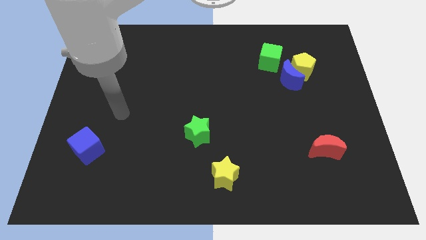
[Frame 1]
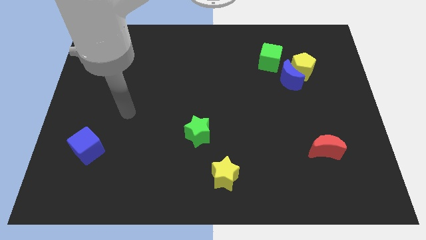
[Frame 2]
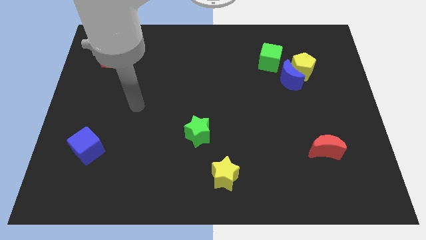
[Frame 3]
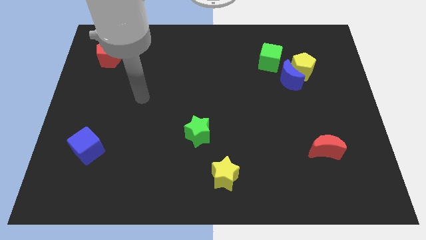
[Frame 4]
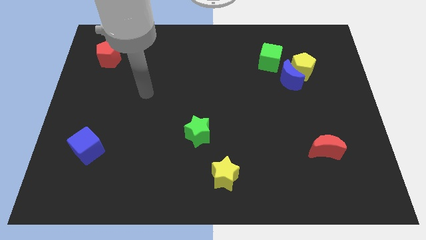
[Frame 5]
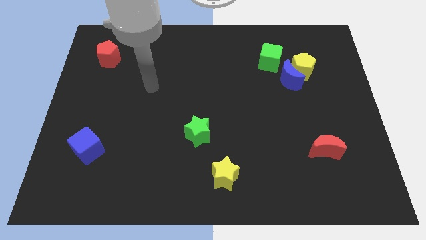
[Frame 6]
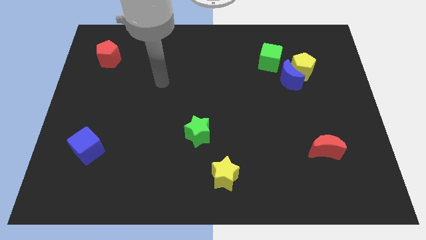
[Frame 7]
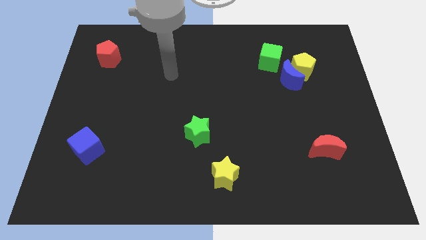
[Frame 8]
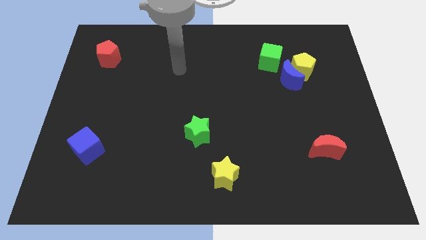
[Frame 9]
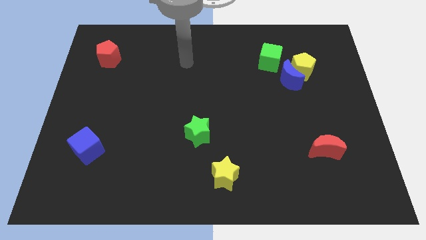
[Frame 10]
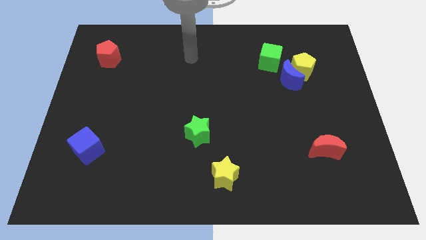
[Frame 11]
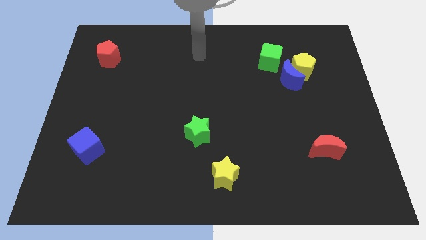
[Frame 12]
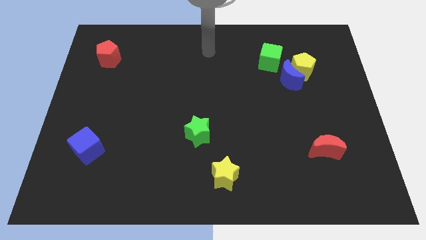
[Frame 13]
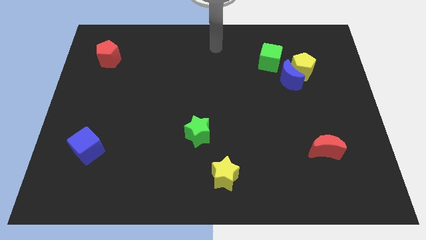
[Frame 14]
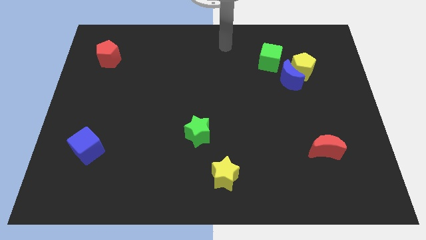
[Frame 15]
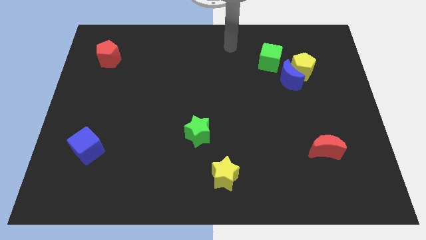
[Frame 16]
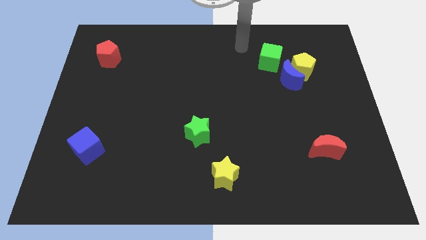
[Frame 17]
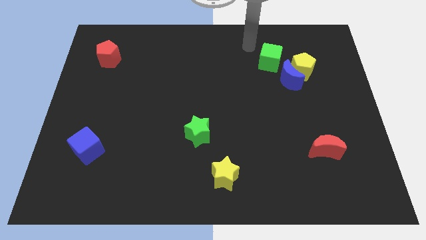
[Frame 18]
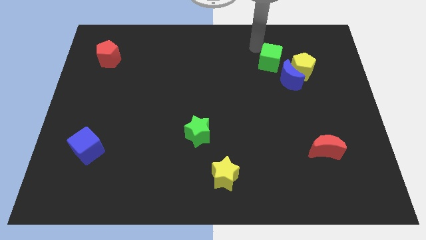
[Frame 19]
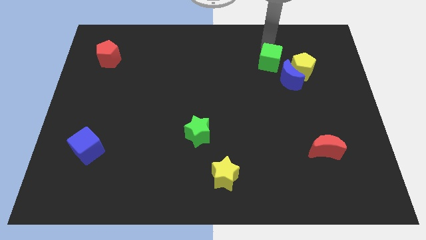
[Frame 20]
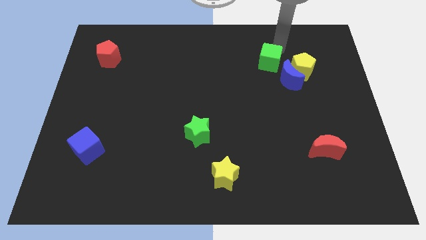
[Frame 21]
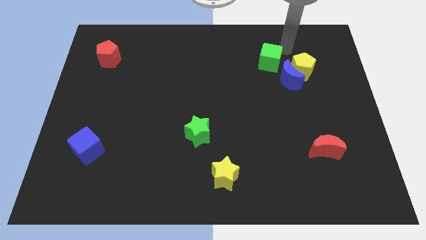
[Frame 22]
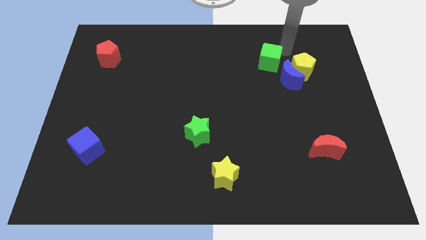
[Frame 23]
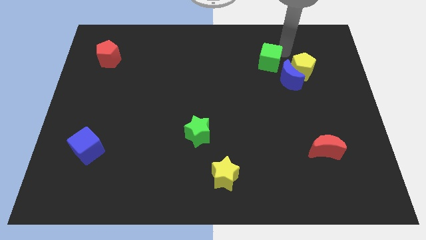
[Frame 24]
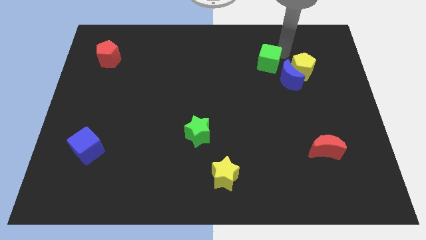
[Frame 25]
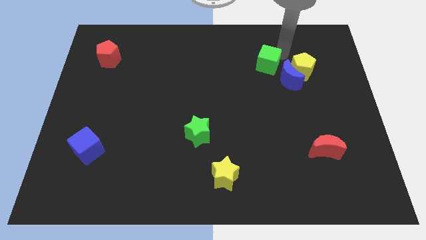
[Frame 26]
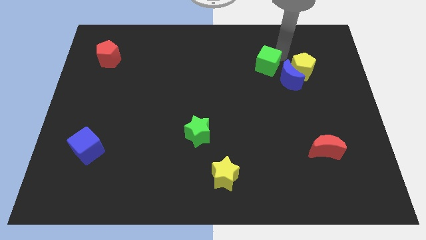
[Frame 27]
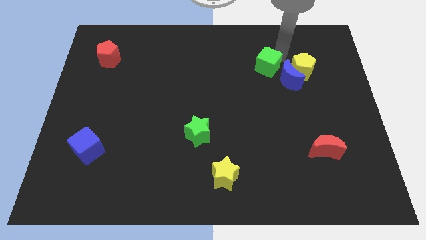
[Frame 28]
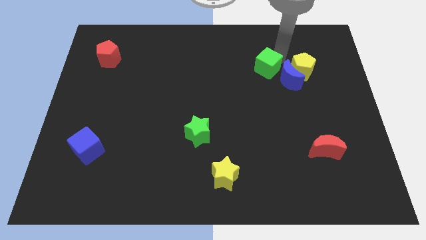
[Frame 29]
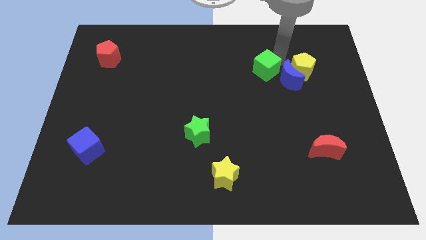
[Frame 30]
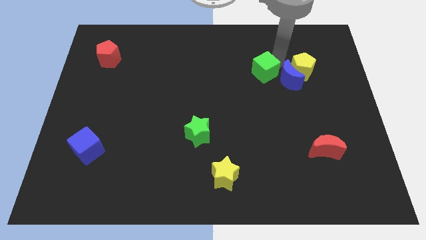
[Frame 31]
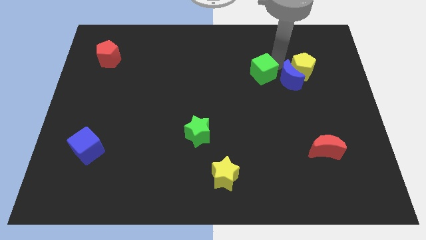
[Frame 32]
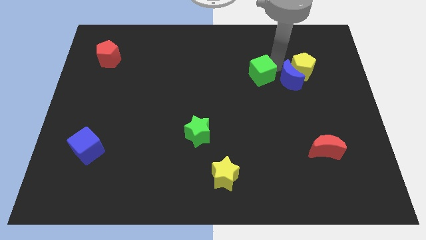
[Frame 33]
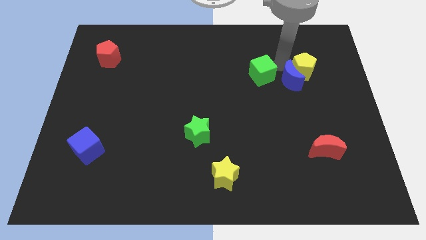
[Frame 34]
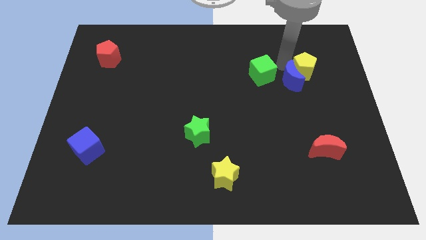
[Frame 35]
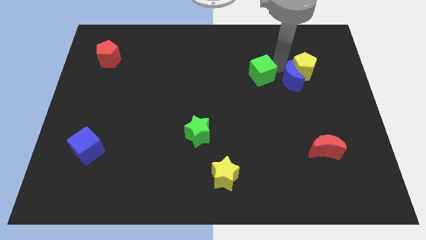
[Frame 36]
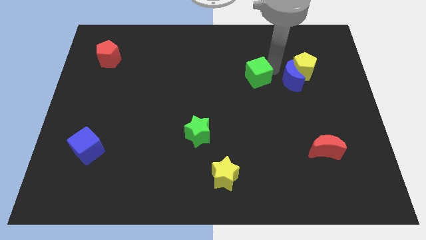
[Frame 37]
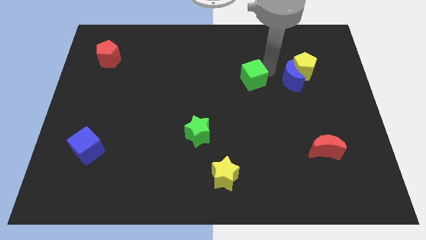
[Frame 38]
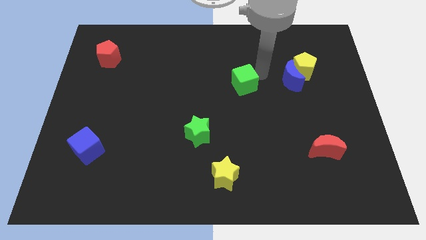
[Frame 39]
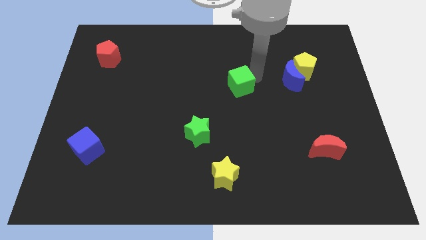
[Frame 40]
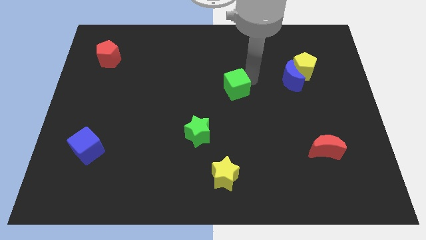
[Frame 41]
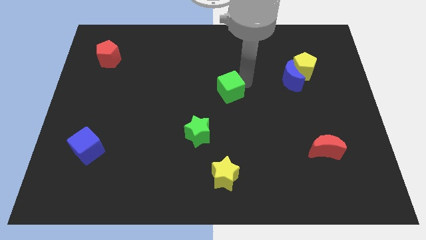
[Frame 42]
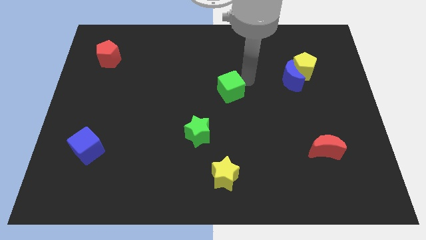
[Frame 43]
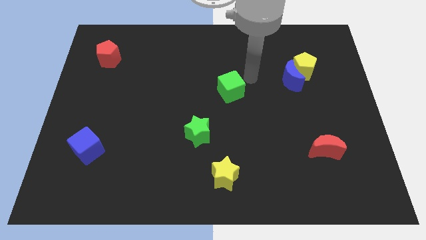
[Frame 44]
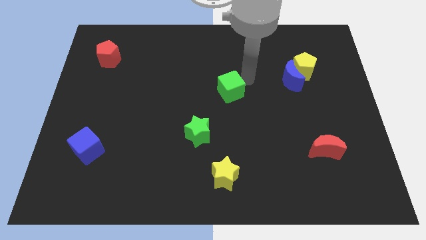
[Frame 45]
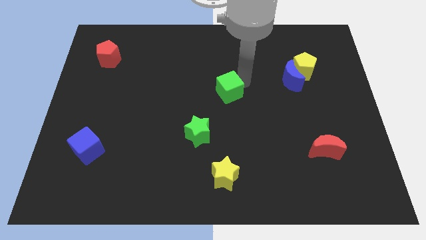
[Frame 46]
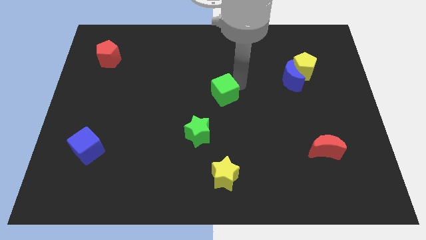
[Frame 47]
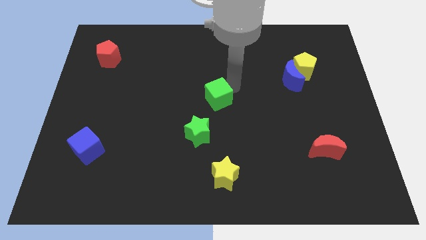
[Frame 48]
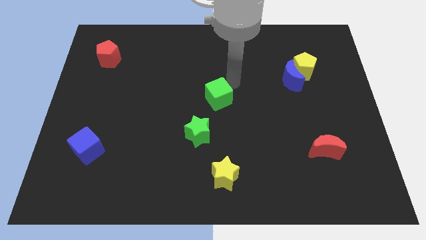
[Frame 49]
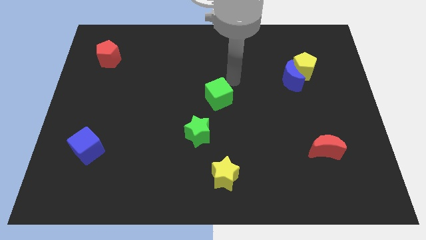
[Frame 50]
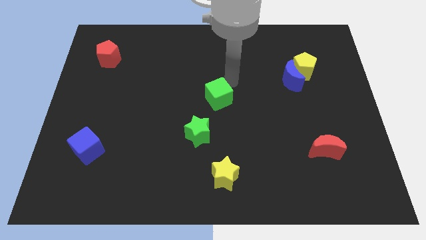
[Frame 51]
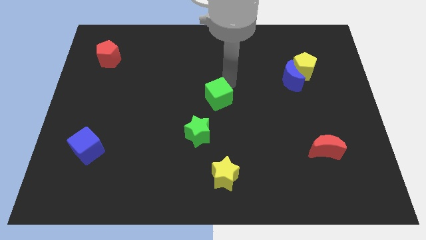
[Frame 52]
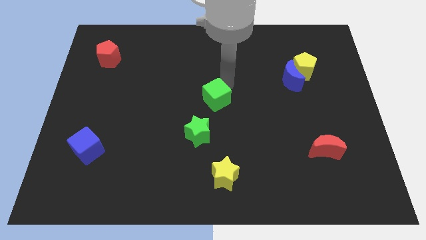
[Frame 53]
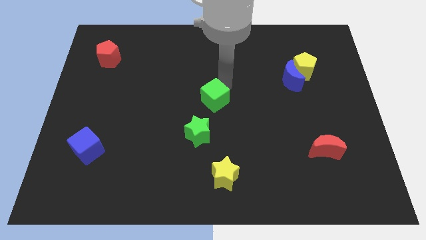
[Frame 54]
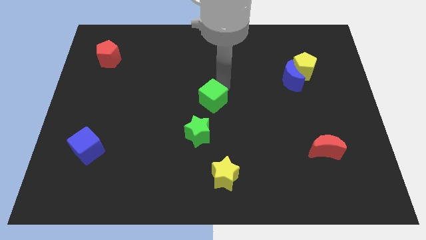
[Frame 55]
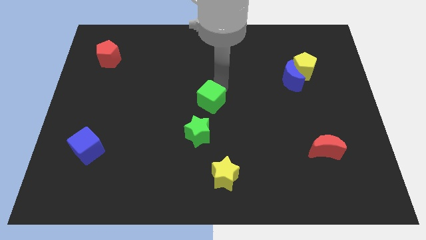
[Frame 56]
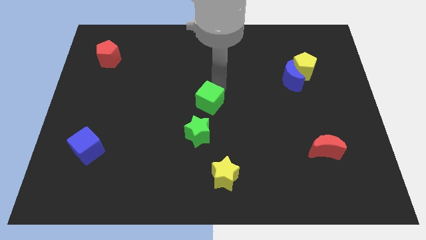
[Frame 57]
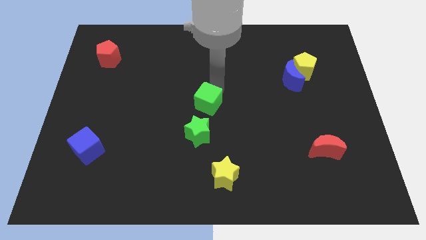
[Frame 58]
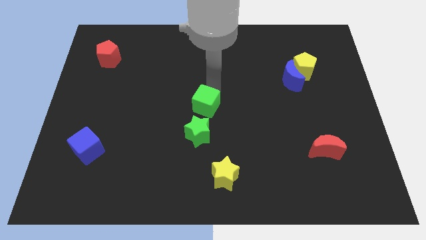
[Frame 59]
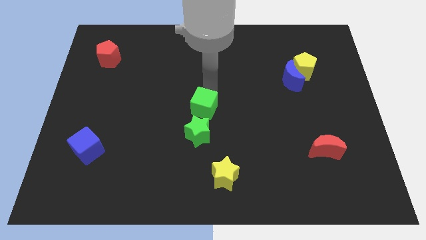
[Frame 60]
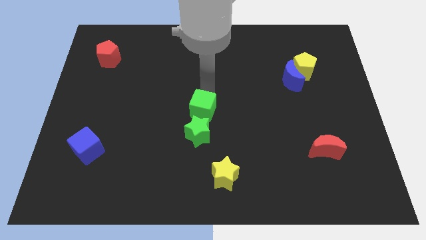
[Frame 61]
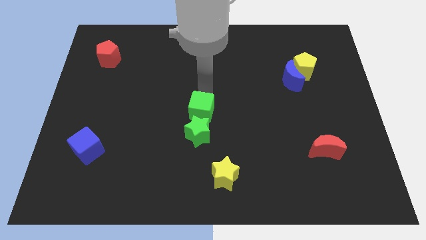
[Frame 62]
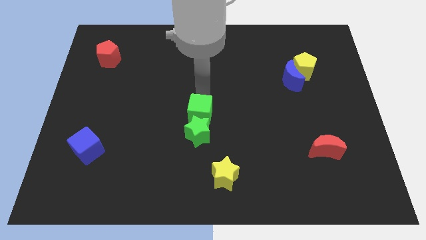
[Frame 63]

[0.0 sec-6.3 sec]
move the green cube next to the green star

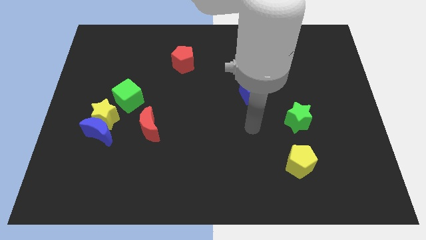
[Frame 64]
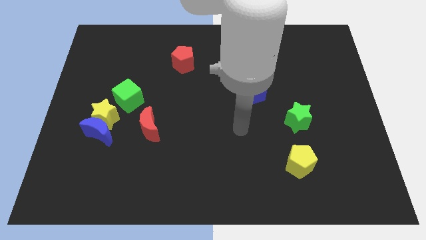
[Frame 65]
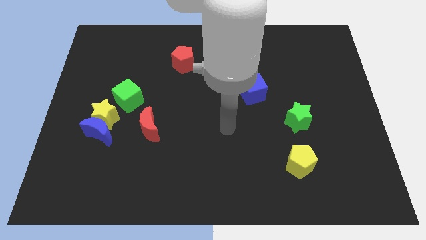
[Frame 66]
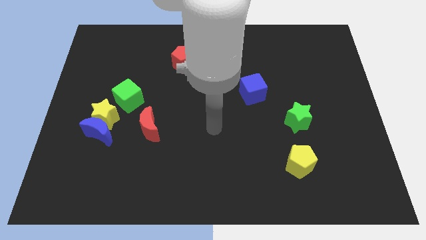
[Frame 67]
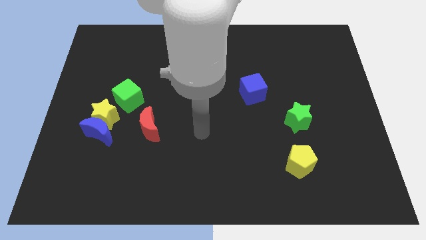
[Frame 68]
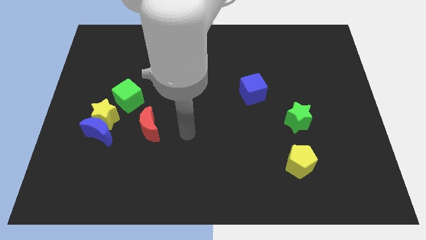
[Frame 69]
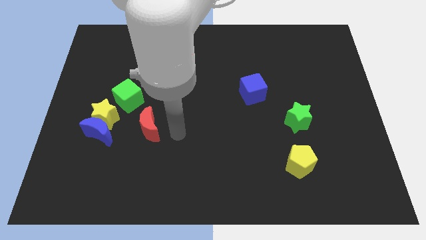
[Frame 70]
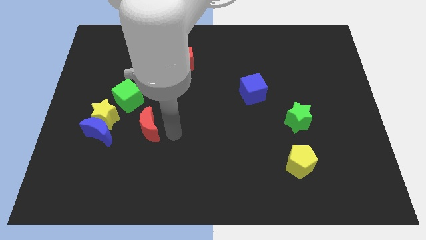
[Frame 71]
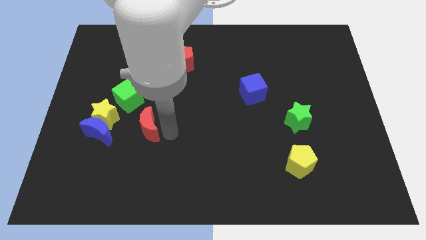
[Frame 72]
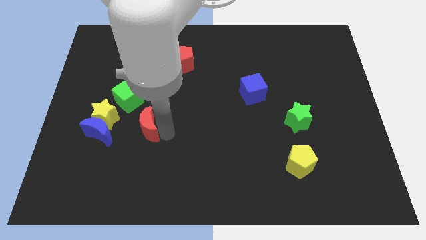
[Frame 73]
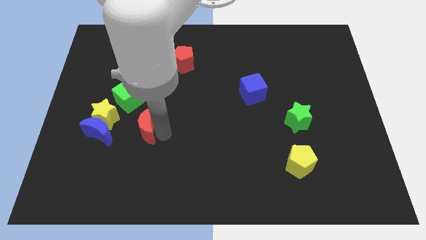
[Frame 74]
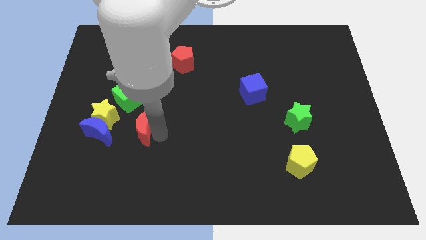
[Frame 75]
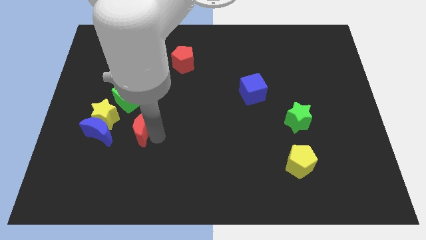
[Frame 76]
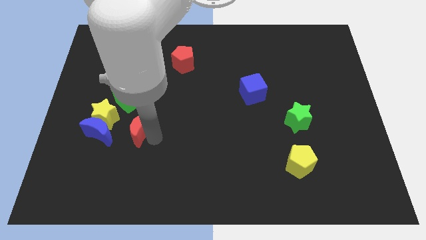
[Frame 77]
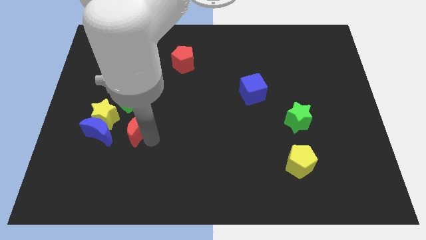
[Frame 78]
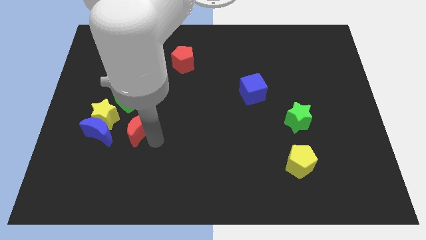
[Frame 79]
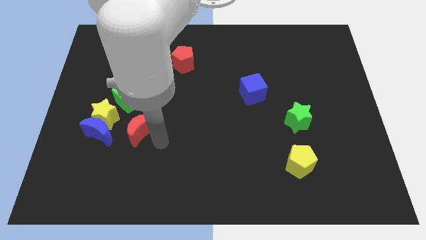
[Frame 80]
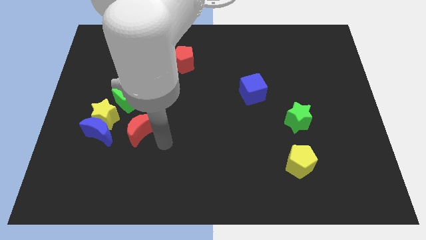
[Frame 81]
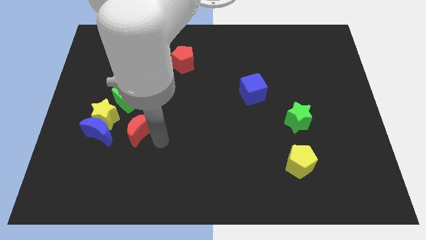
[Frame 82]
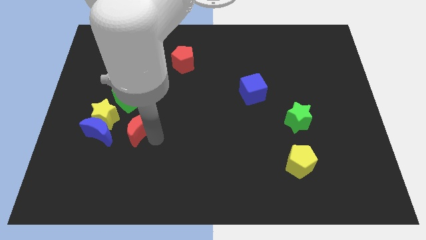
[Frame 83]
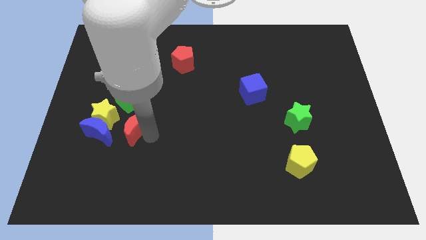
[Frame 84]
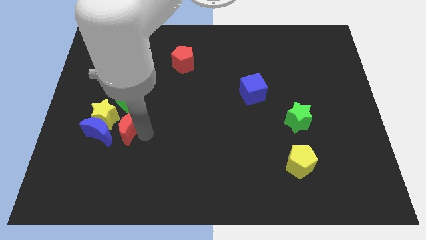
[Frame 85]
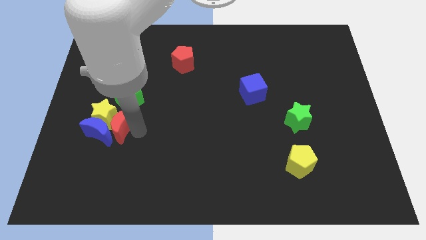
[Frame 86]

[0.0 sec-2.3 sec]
slide the red moon to the yellow star
